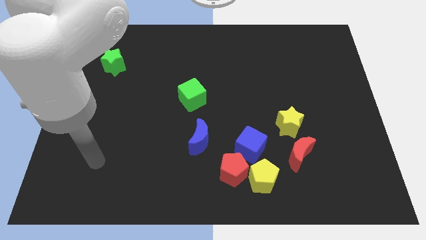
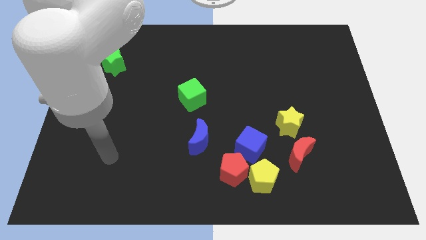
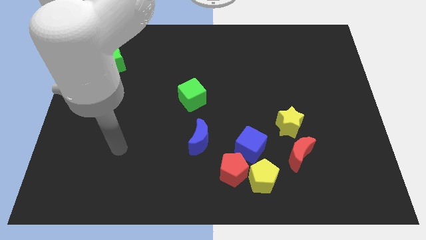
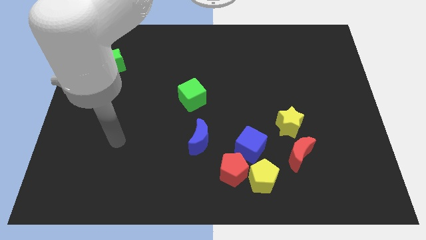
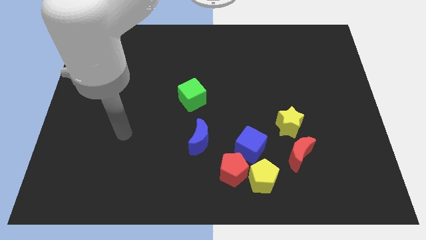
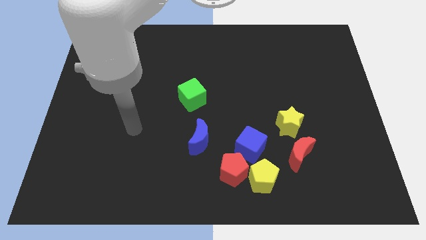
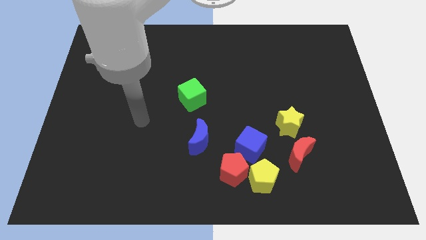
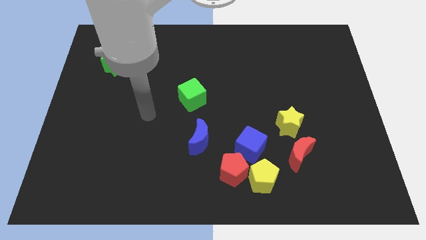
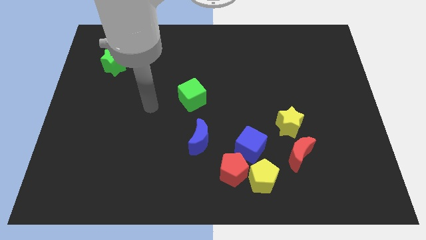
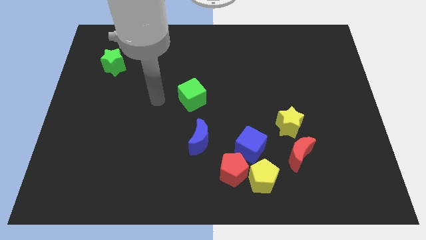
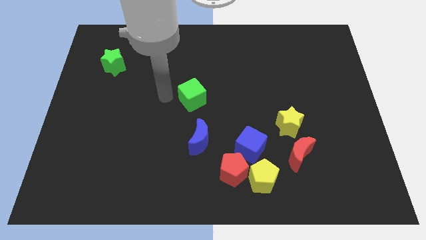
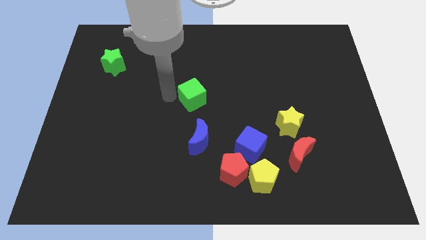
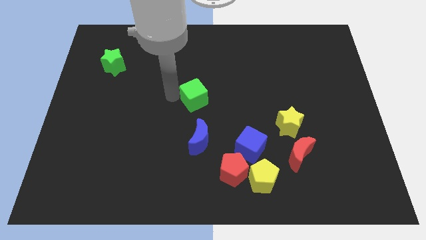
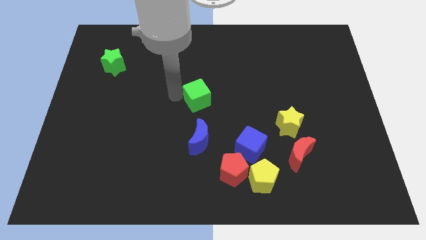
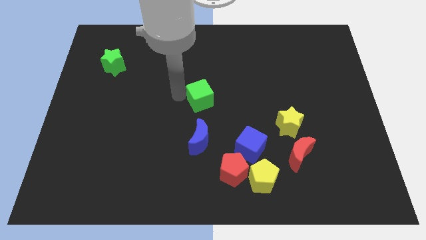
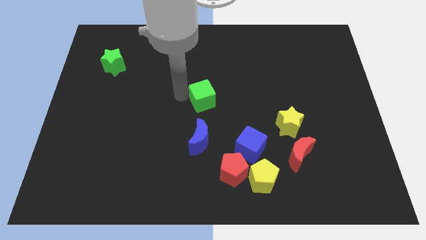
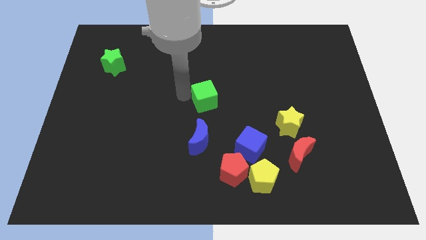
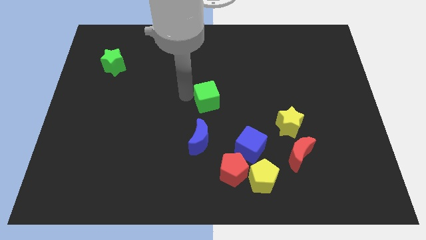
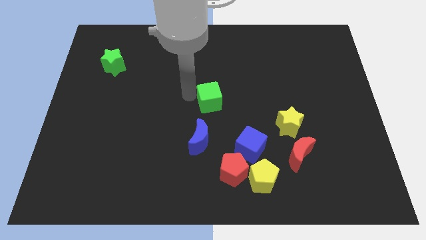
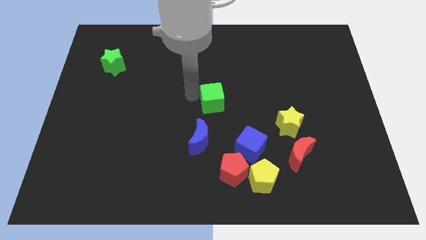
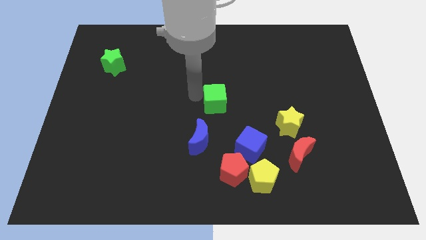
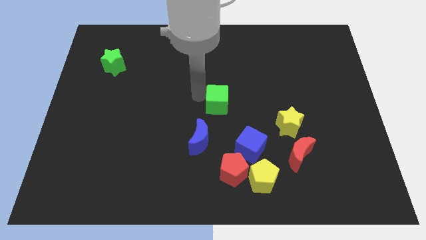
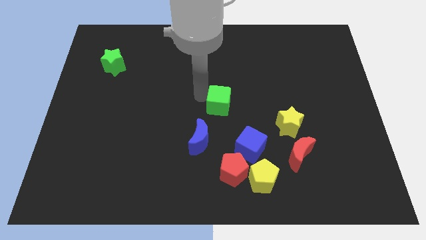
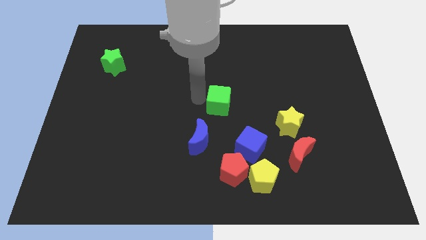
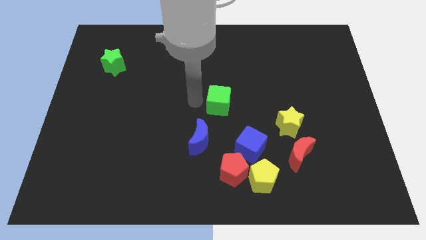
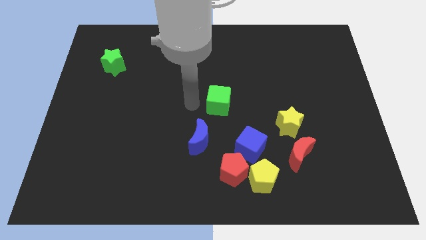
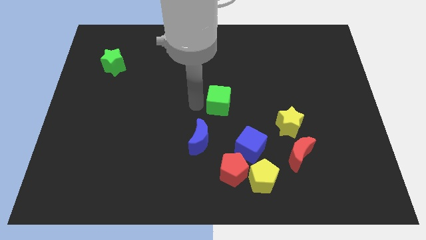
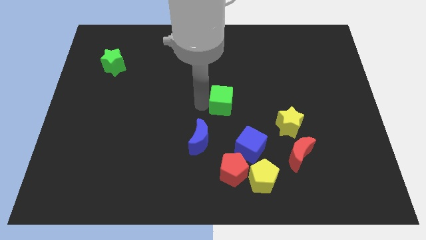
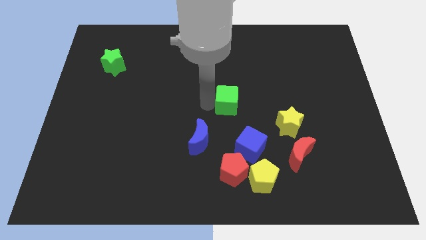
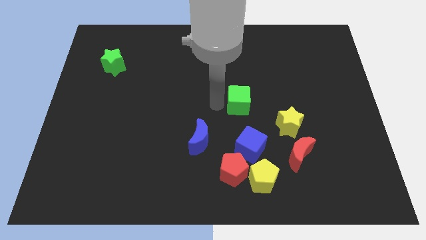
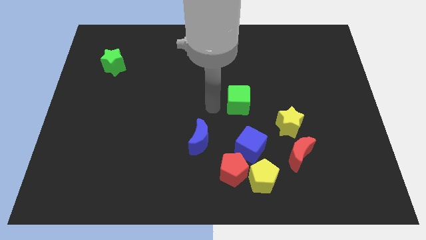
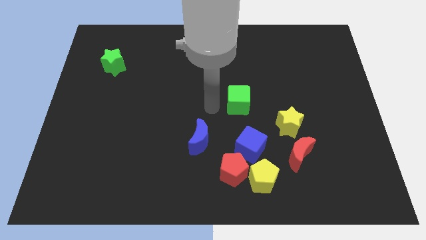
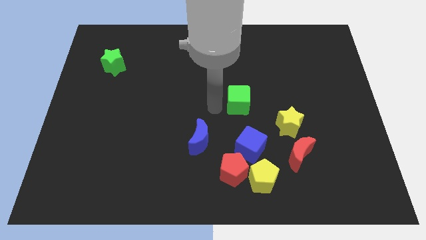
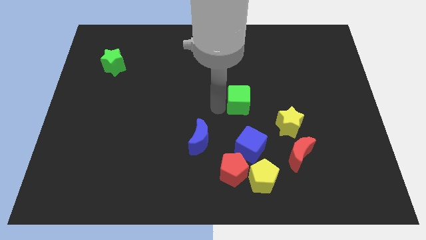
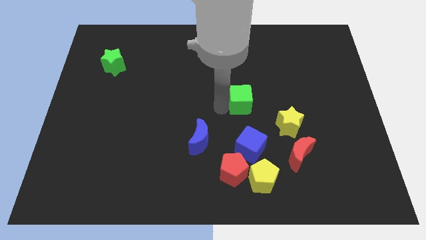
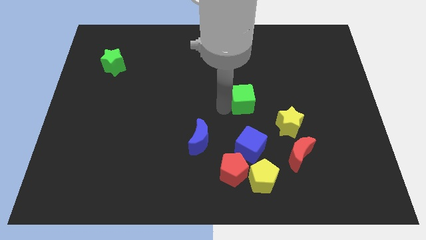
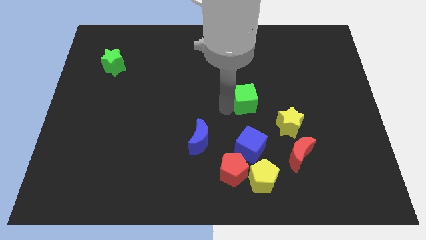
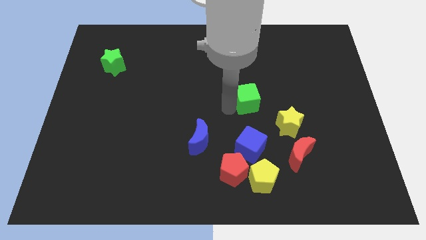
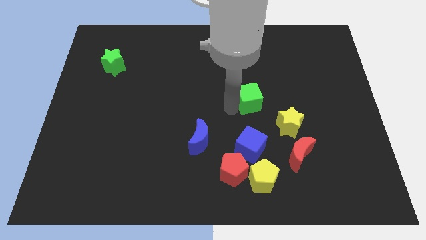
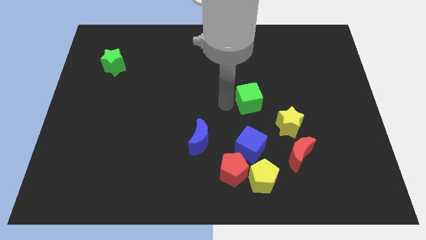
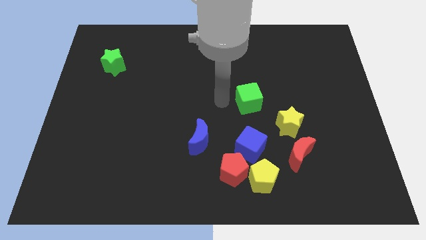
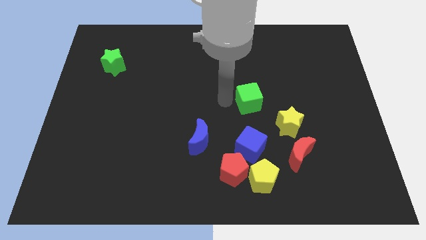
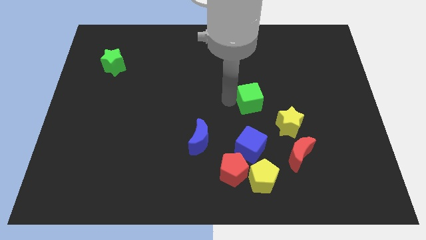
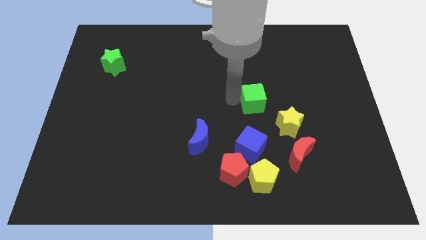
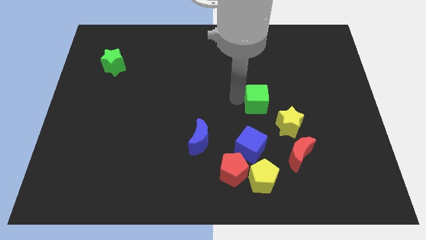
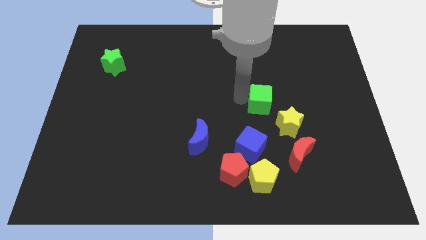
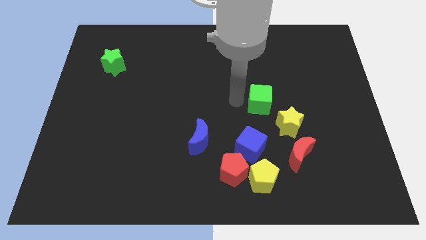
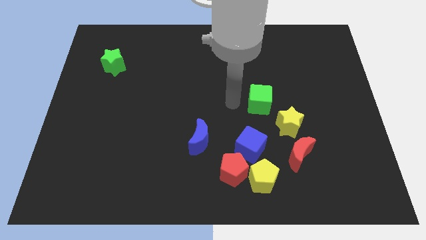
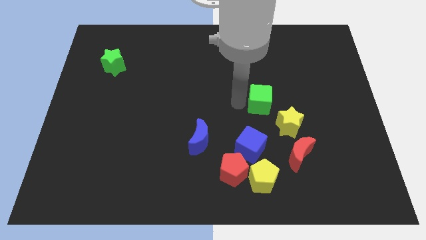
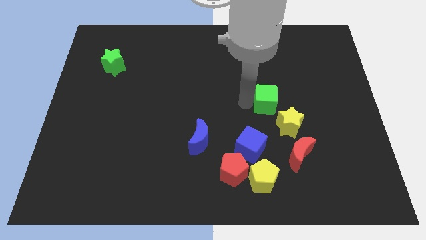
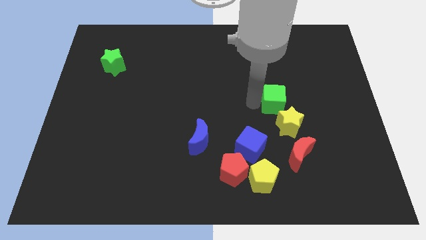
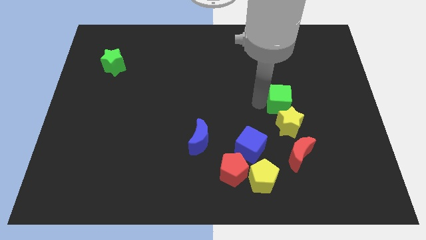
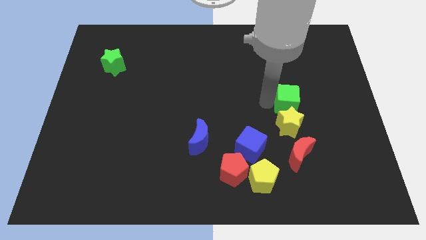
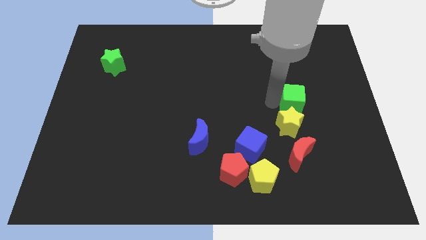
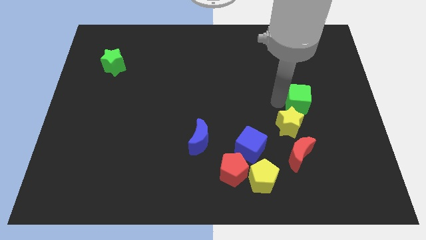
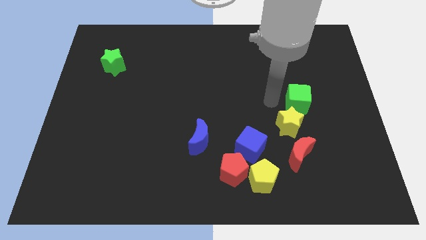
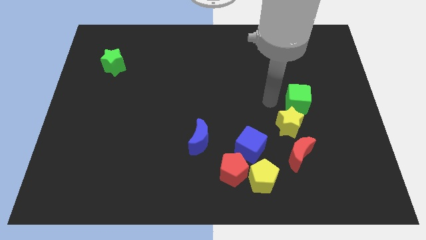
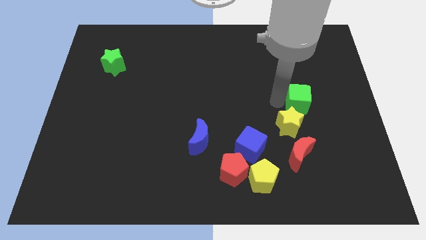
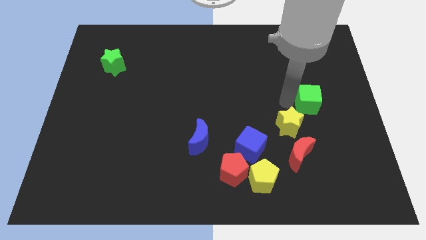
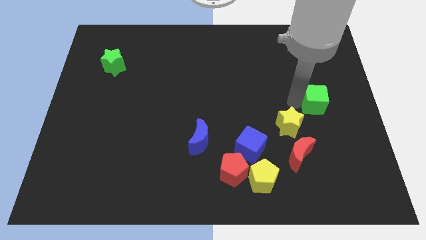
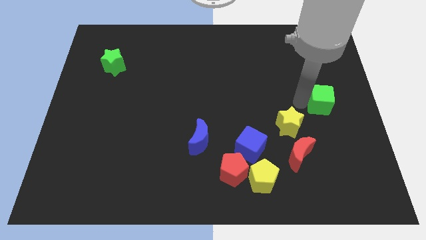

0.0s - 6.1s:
slide the green cube to the right side of the board
